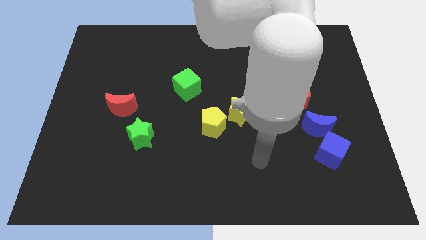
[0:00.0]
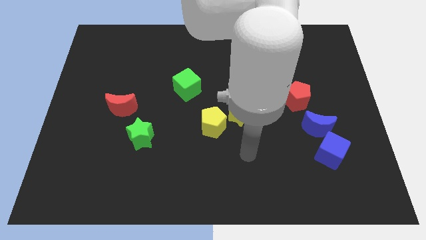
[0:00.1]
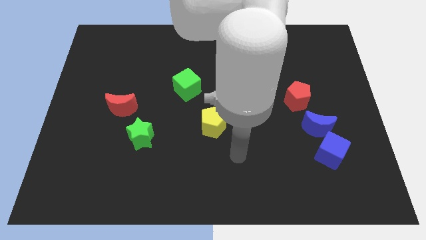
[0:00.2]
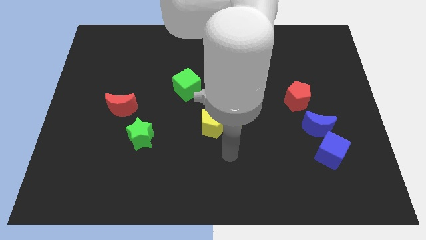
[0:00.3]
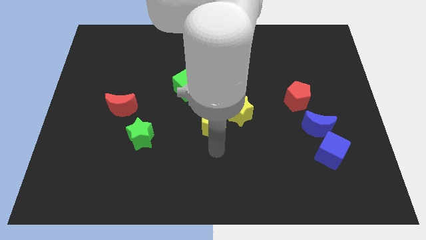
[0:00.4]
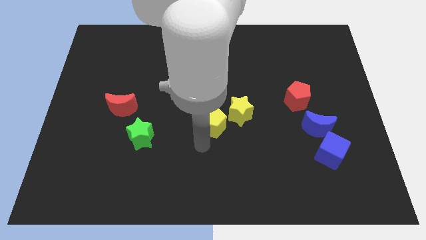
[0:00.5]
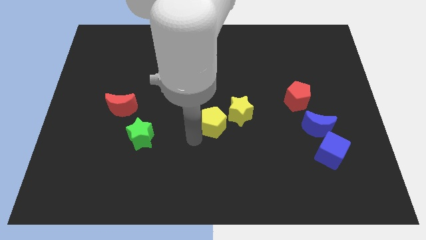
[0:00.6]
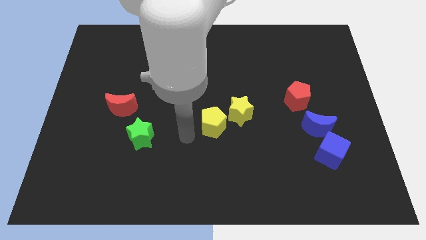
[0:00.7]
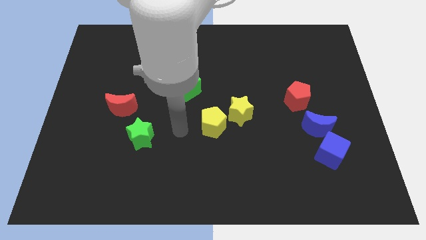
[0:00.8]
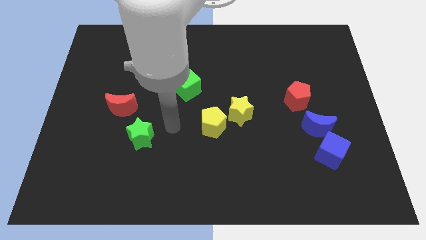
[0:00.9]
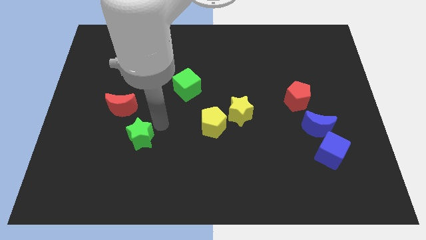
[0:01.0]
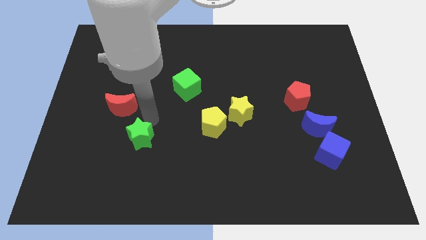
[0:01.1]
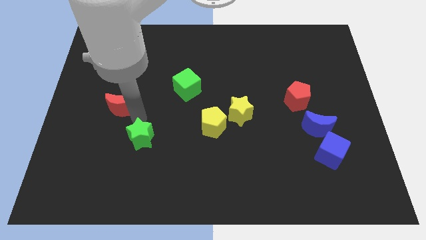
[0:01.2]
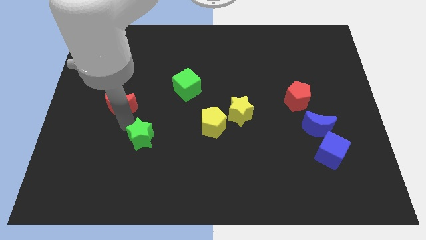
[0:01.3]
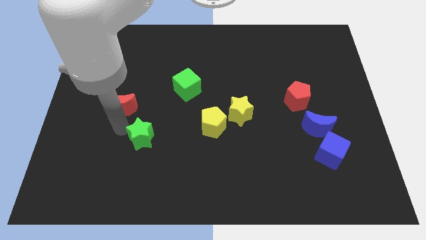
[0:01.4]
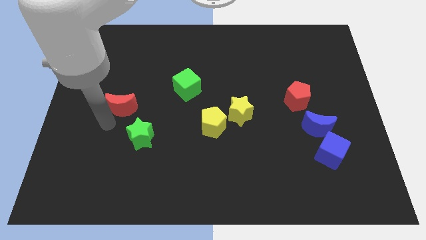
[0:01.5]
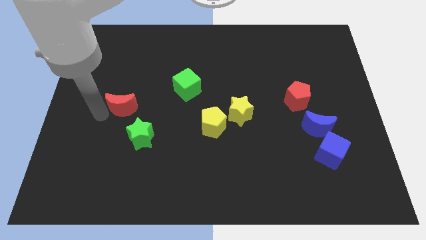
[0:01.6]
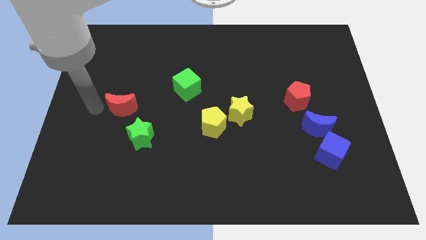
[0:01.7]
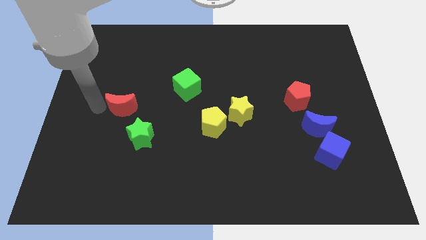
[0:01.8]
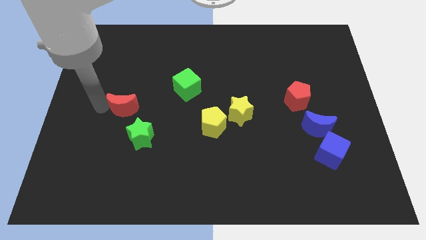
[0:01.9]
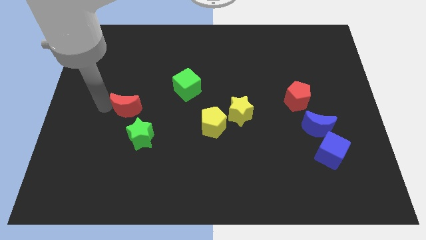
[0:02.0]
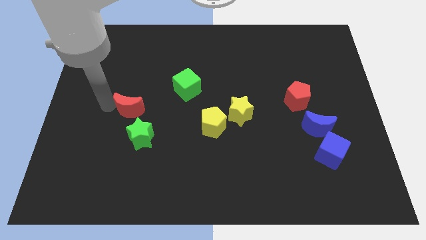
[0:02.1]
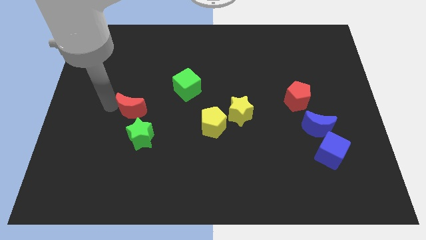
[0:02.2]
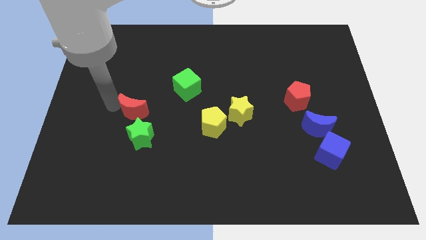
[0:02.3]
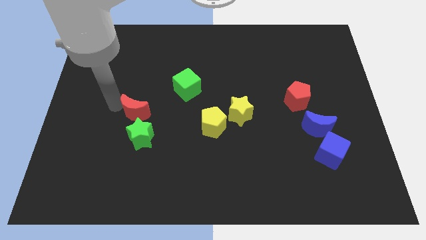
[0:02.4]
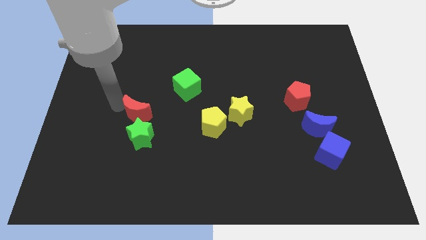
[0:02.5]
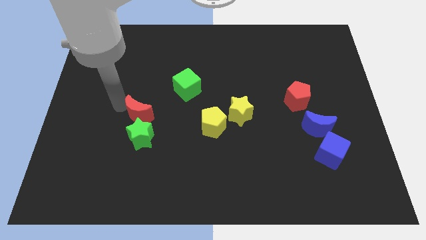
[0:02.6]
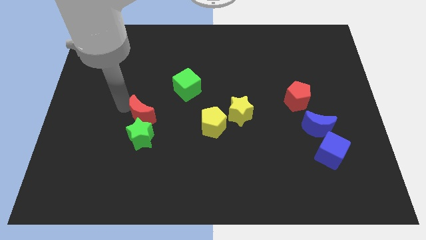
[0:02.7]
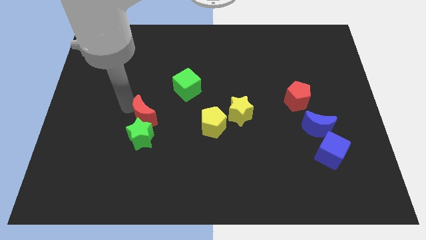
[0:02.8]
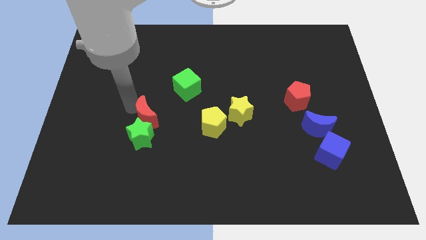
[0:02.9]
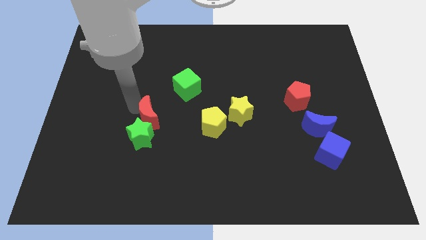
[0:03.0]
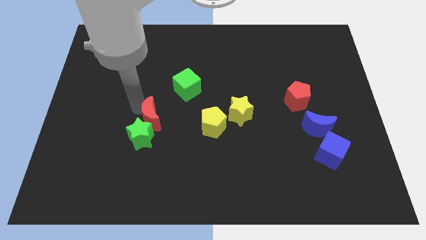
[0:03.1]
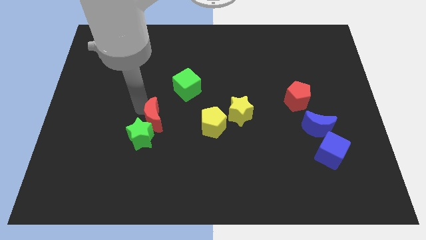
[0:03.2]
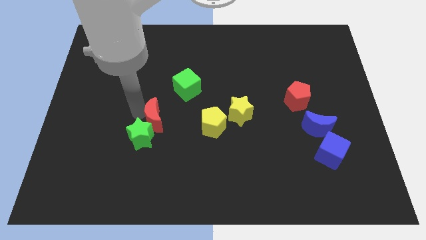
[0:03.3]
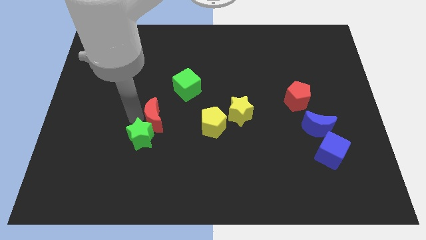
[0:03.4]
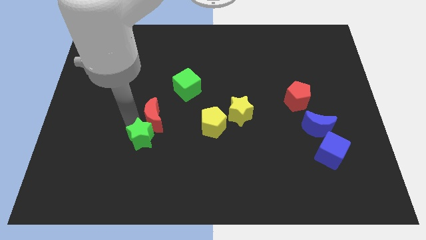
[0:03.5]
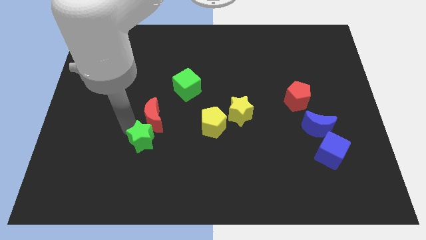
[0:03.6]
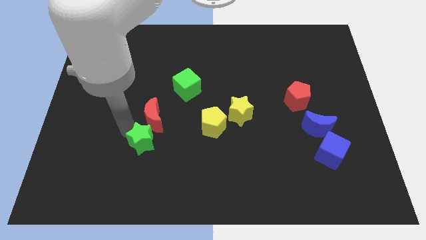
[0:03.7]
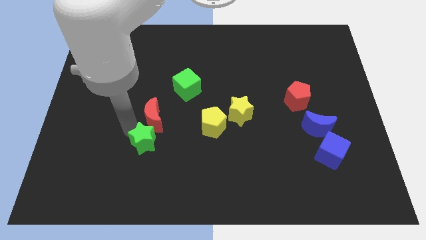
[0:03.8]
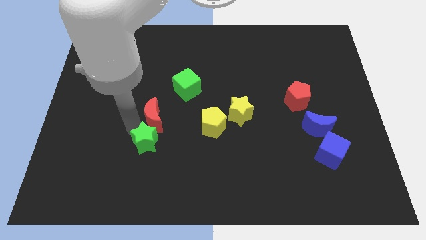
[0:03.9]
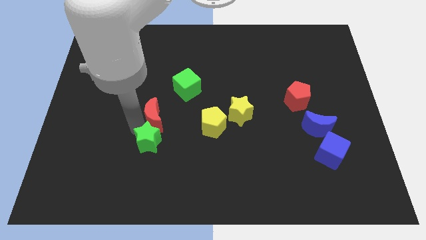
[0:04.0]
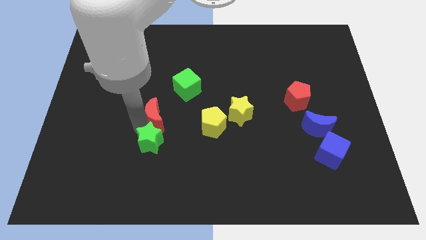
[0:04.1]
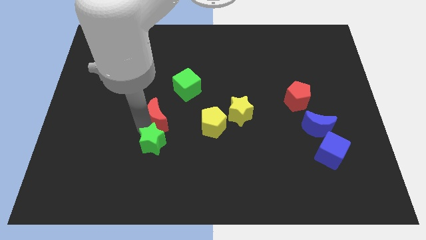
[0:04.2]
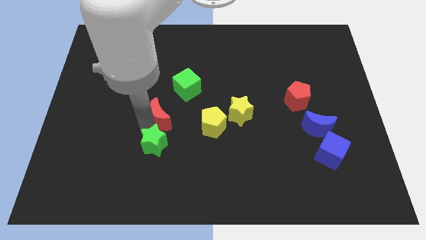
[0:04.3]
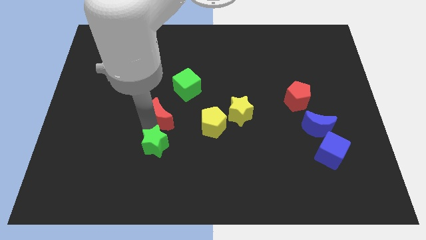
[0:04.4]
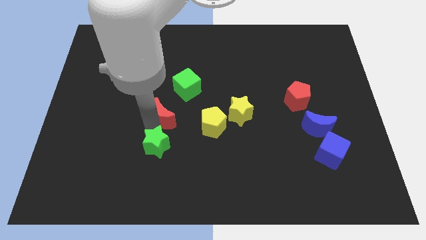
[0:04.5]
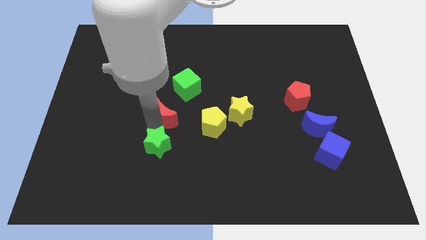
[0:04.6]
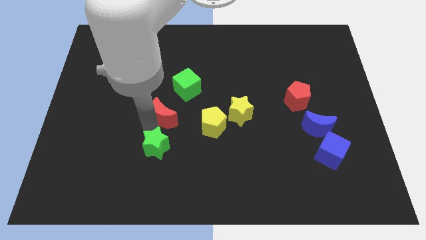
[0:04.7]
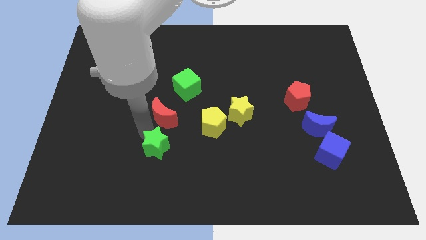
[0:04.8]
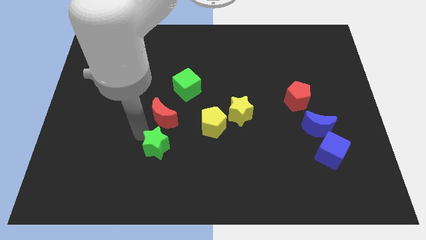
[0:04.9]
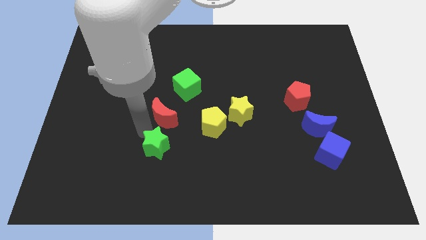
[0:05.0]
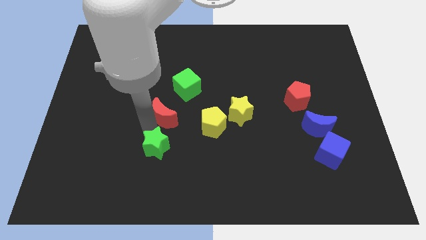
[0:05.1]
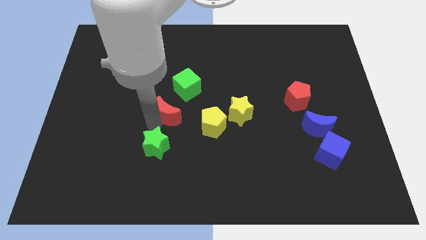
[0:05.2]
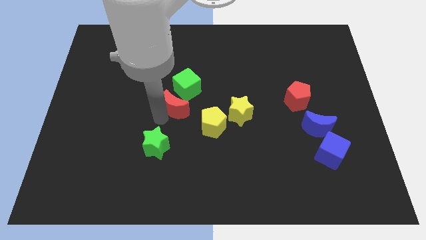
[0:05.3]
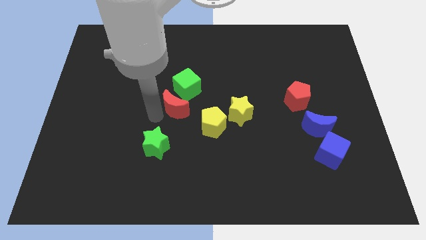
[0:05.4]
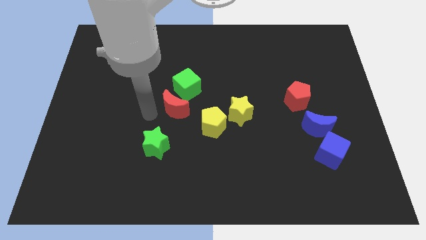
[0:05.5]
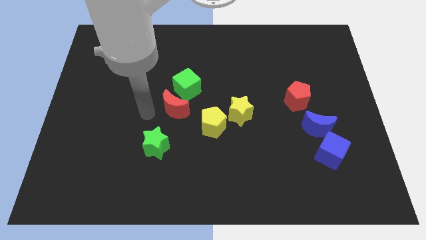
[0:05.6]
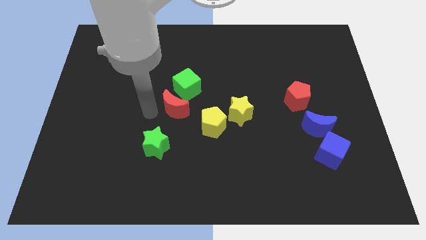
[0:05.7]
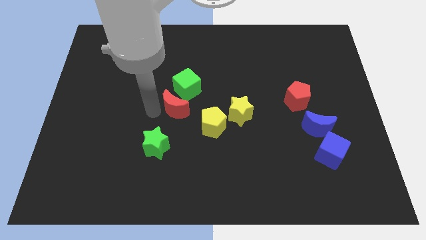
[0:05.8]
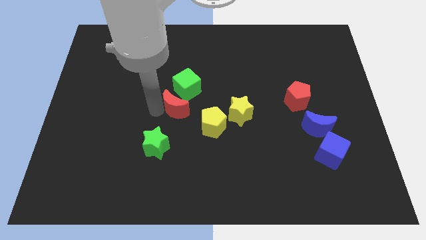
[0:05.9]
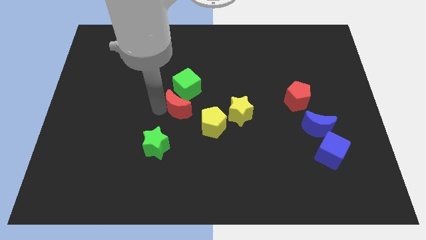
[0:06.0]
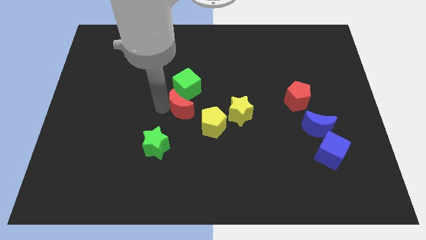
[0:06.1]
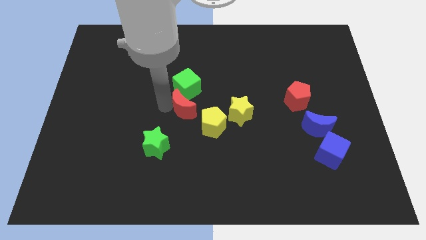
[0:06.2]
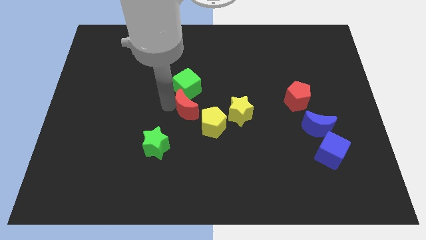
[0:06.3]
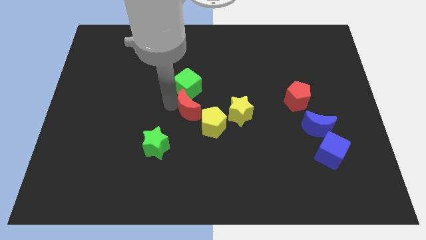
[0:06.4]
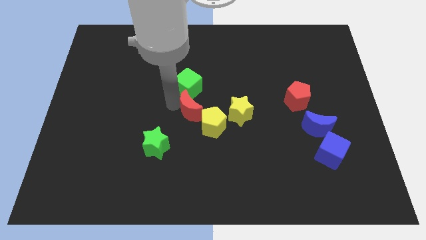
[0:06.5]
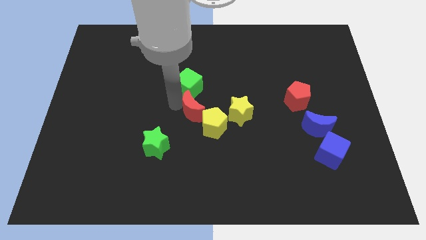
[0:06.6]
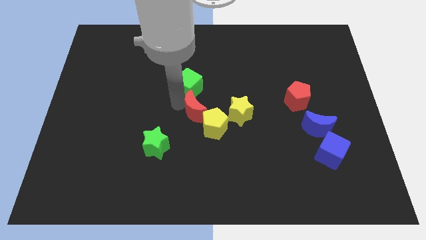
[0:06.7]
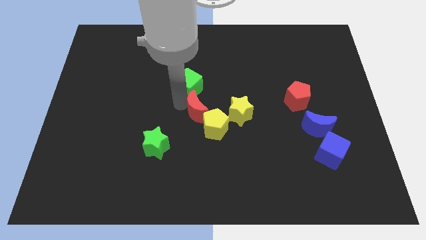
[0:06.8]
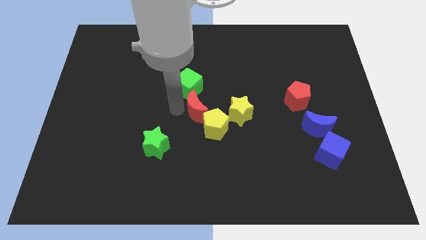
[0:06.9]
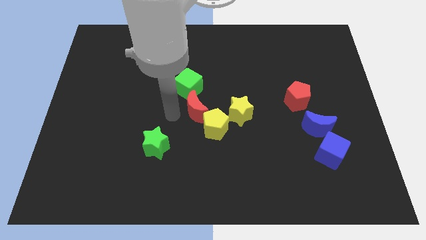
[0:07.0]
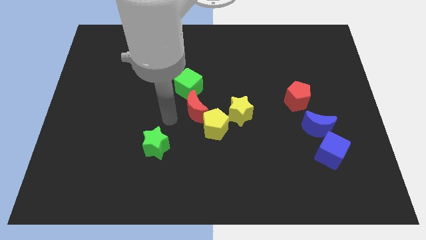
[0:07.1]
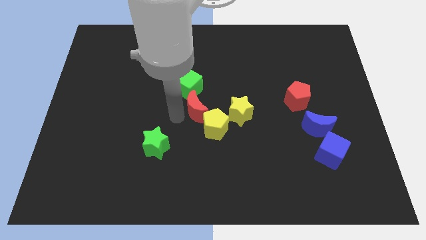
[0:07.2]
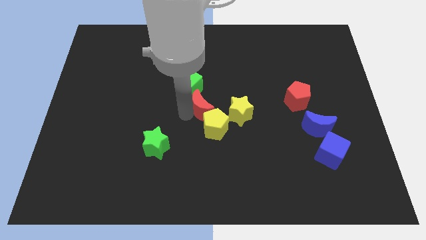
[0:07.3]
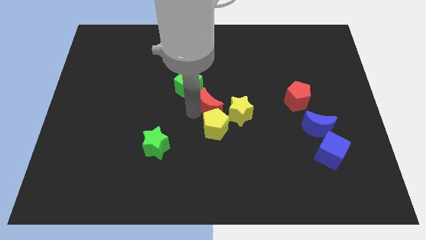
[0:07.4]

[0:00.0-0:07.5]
move the red moon right

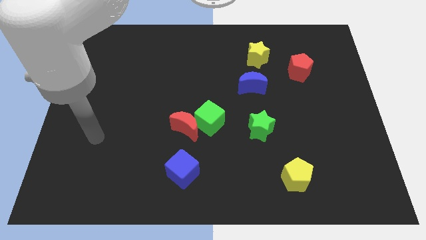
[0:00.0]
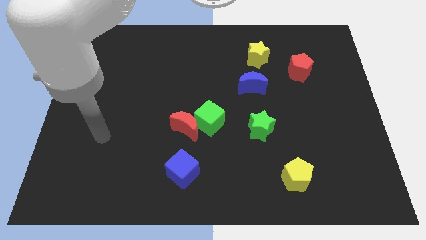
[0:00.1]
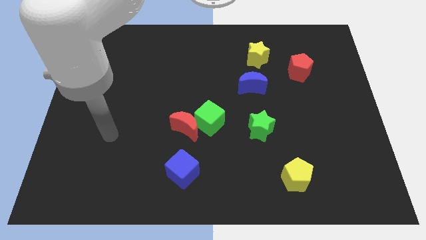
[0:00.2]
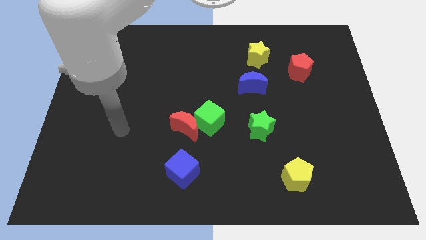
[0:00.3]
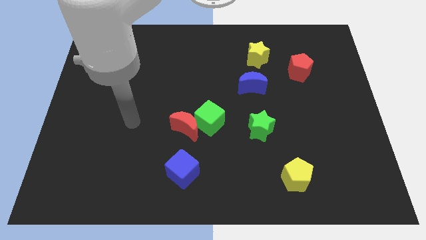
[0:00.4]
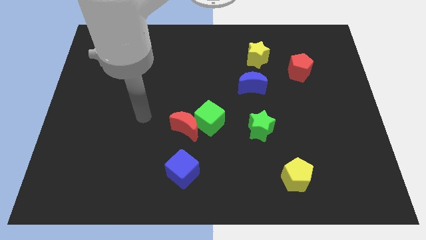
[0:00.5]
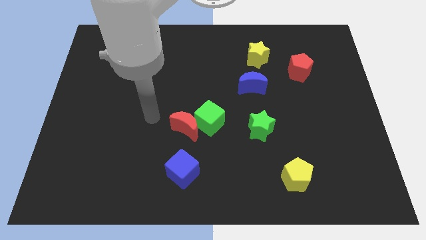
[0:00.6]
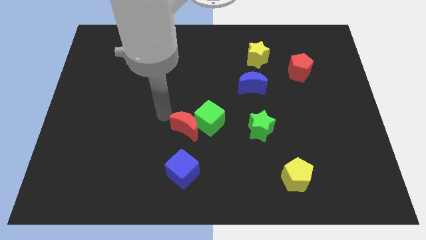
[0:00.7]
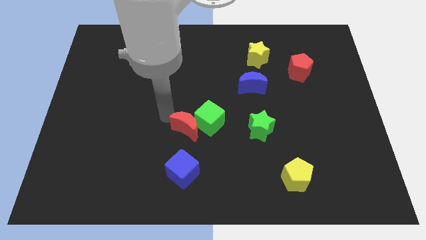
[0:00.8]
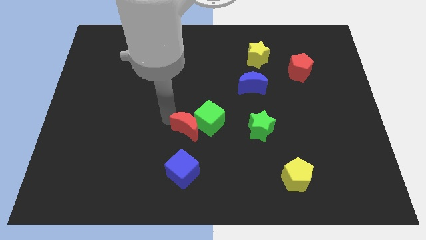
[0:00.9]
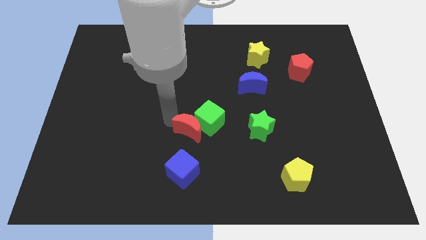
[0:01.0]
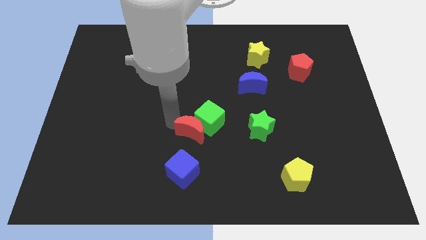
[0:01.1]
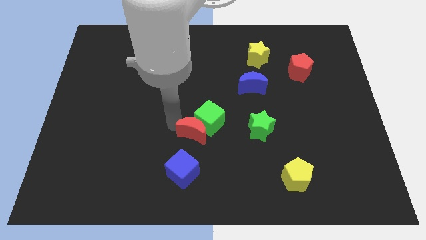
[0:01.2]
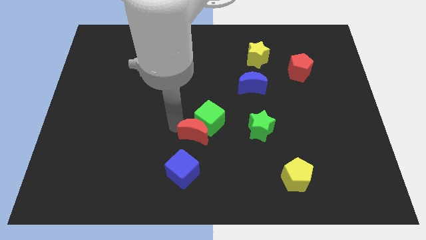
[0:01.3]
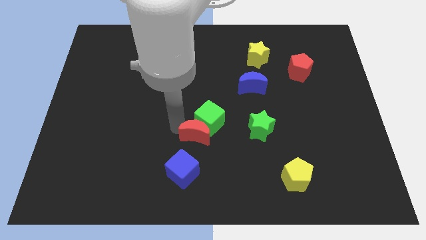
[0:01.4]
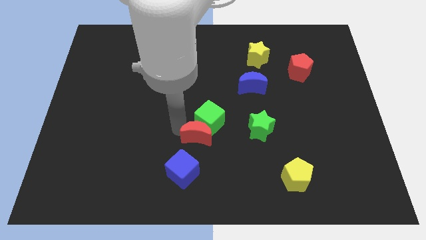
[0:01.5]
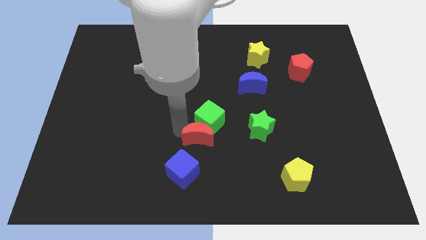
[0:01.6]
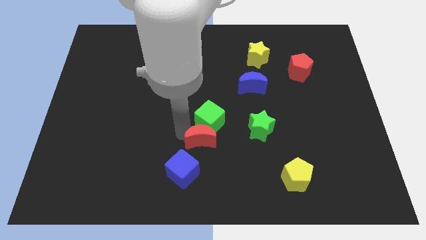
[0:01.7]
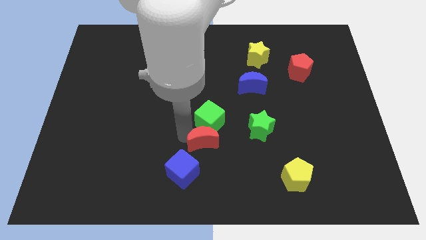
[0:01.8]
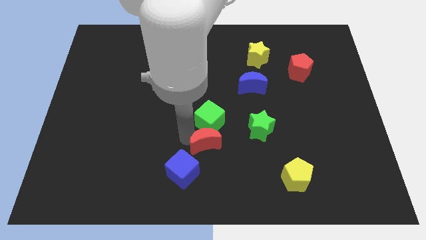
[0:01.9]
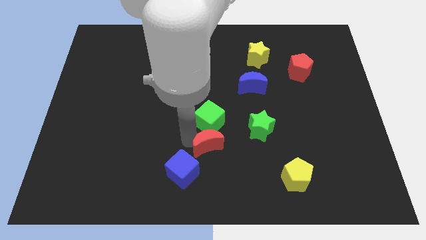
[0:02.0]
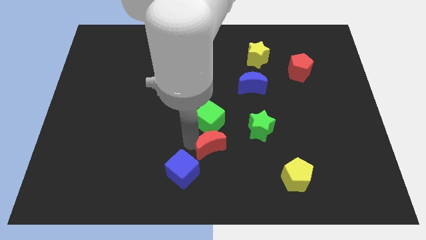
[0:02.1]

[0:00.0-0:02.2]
slightly move the red moon down and to the right
